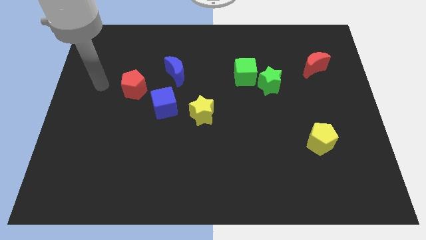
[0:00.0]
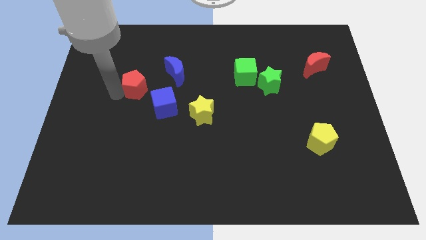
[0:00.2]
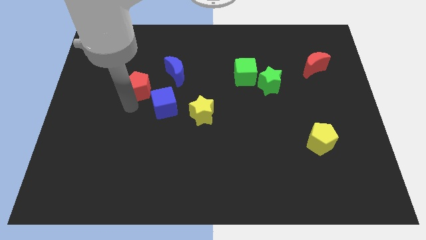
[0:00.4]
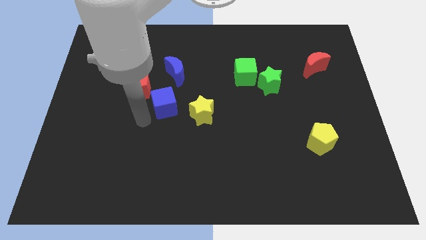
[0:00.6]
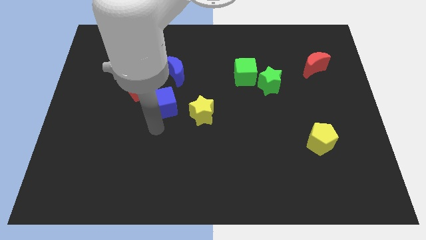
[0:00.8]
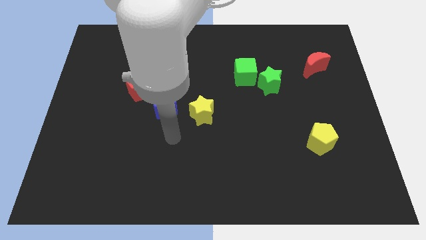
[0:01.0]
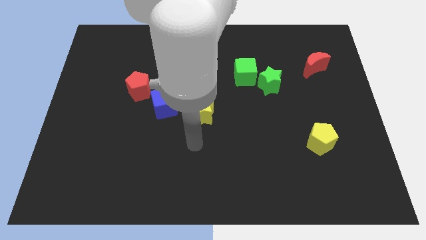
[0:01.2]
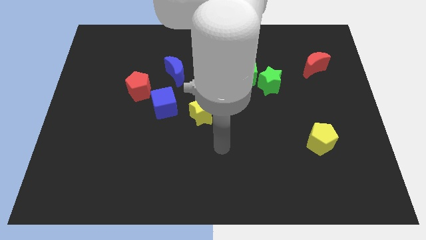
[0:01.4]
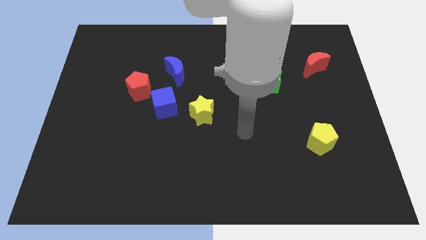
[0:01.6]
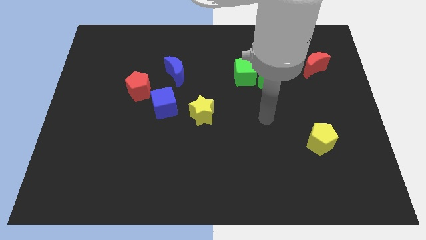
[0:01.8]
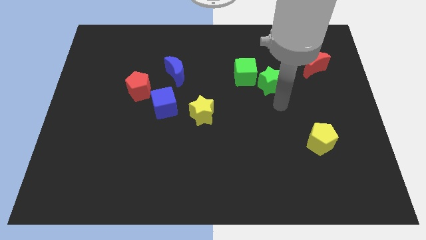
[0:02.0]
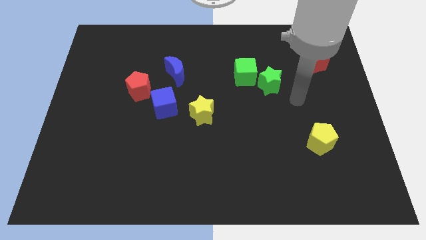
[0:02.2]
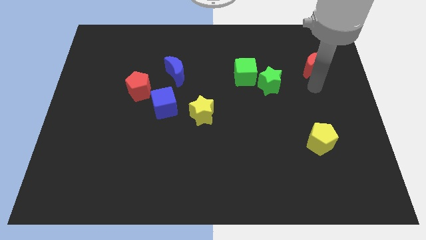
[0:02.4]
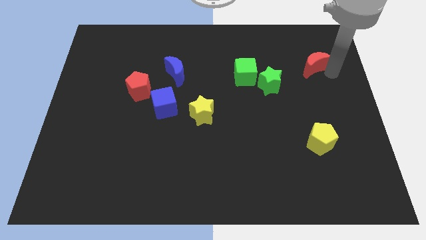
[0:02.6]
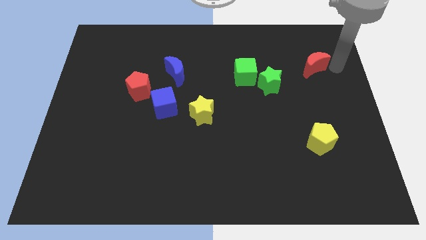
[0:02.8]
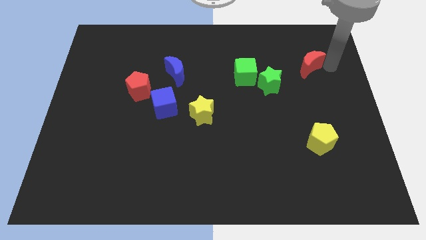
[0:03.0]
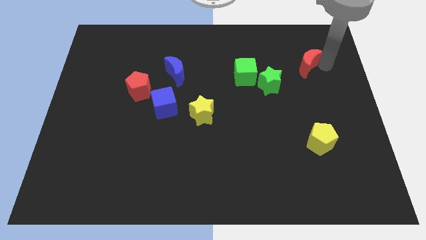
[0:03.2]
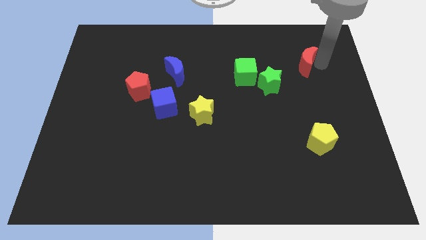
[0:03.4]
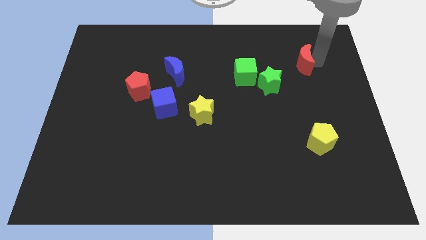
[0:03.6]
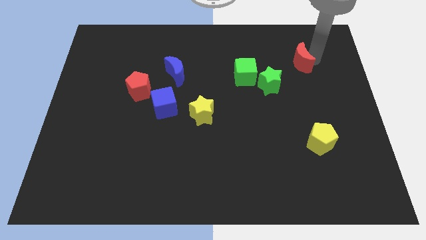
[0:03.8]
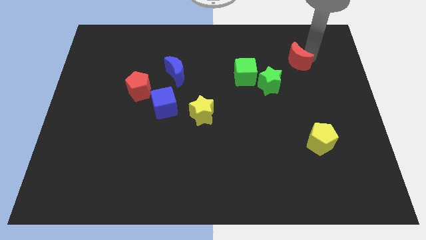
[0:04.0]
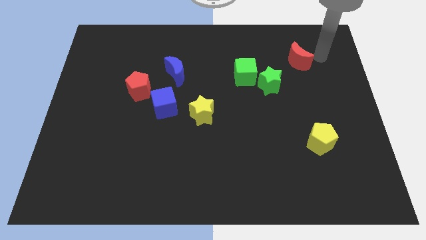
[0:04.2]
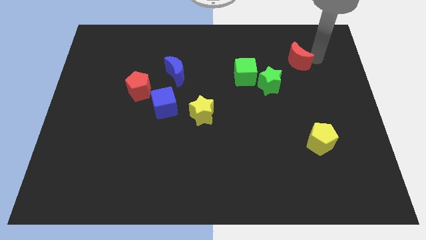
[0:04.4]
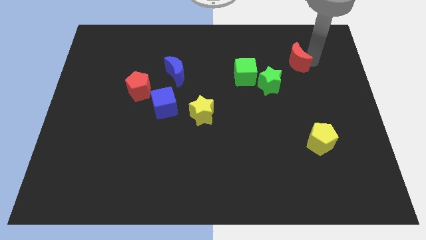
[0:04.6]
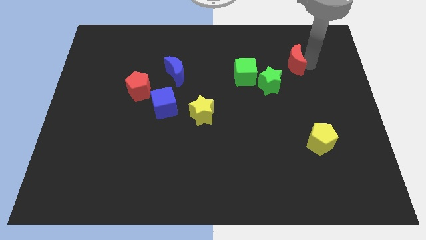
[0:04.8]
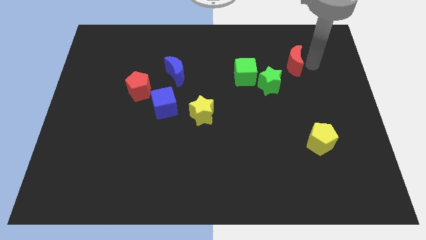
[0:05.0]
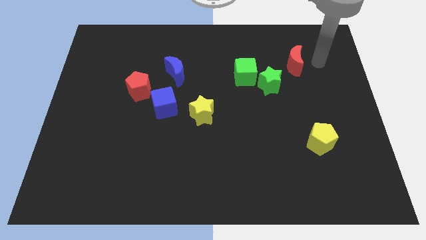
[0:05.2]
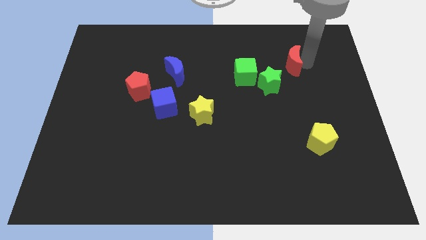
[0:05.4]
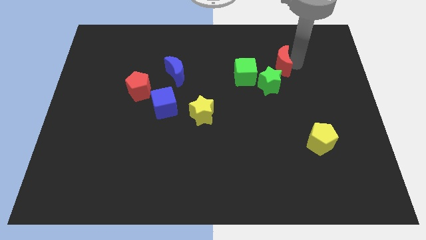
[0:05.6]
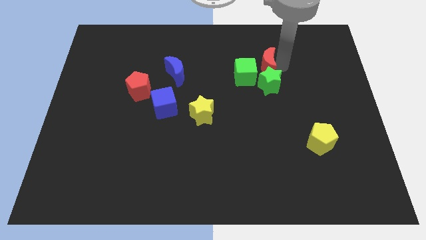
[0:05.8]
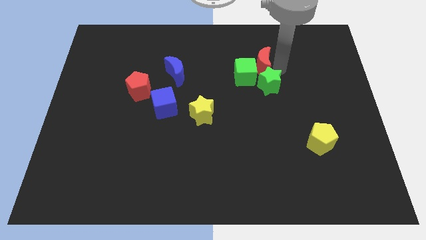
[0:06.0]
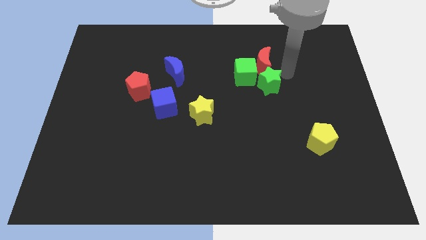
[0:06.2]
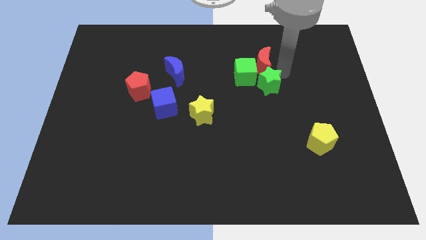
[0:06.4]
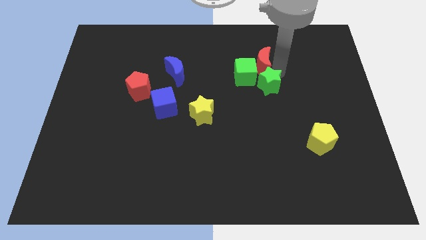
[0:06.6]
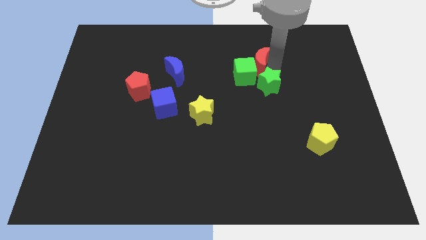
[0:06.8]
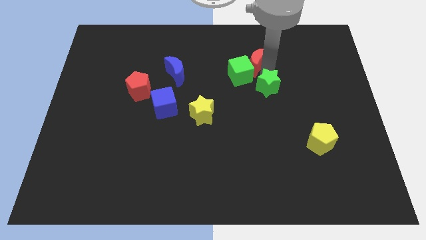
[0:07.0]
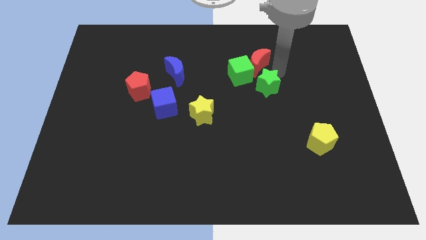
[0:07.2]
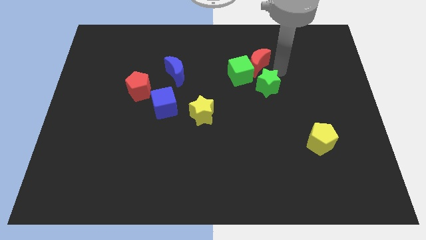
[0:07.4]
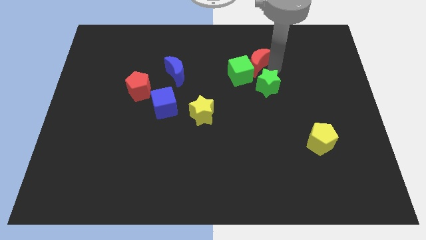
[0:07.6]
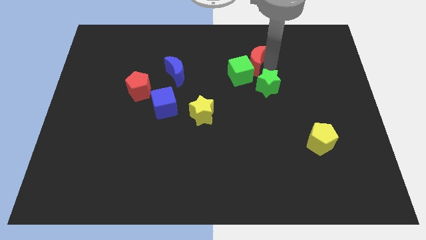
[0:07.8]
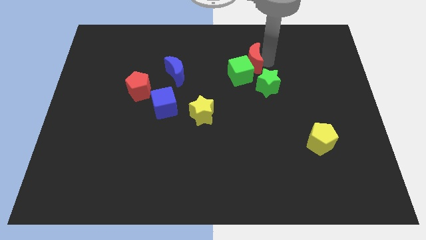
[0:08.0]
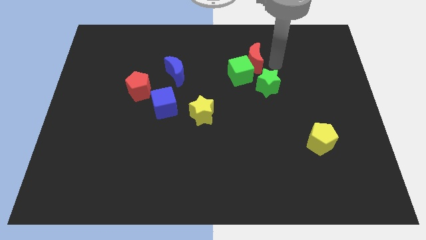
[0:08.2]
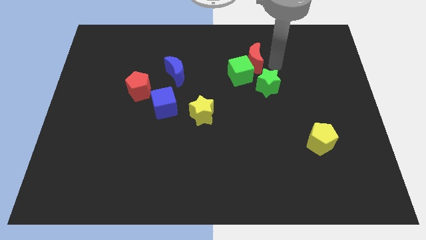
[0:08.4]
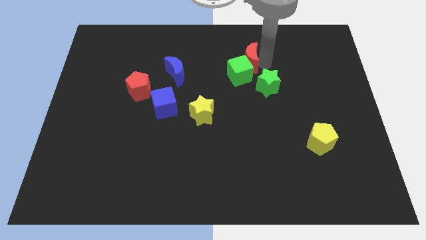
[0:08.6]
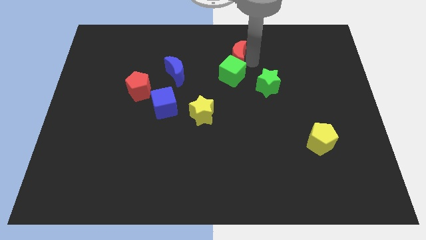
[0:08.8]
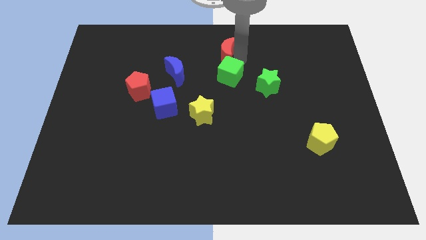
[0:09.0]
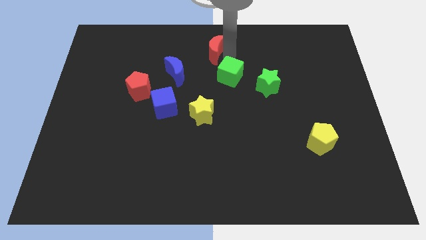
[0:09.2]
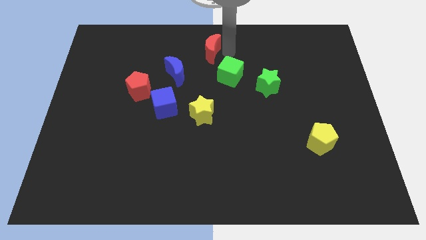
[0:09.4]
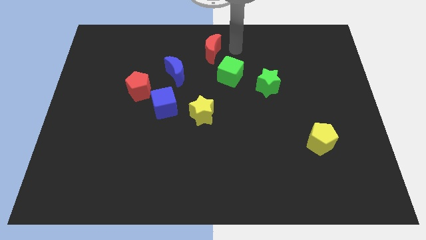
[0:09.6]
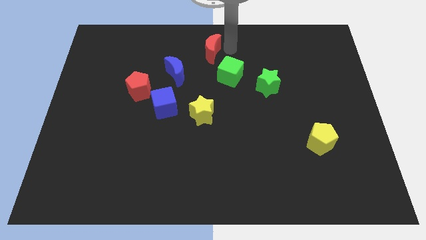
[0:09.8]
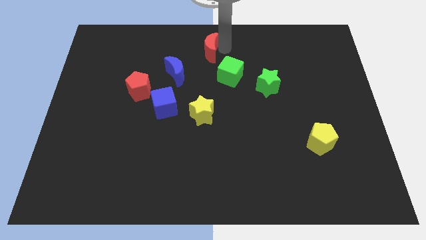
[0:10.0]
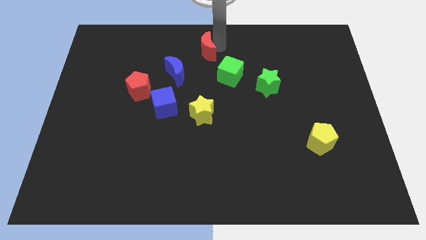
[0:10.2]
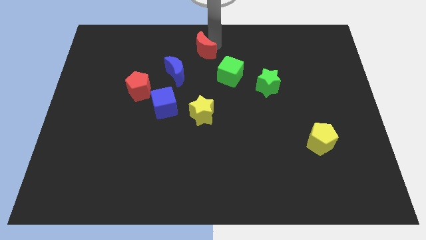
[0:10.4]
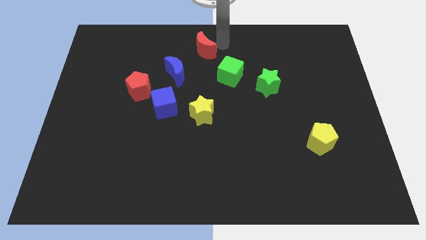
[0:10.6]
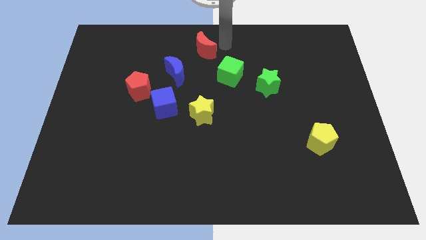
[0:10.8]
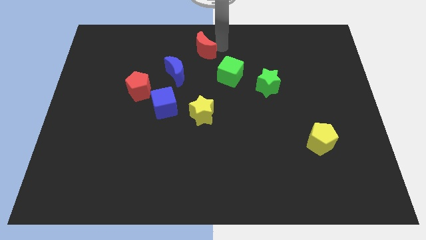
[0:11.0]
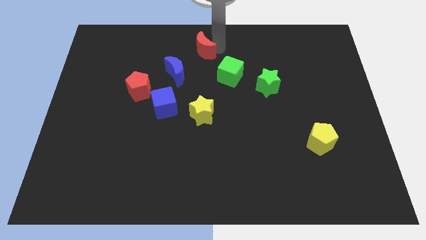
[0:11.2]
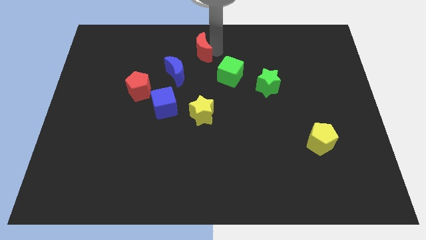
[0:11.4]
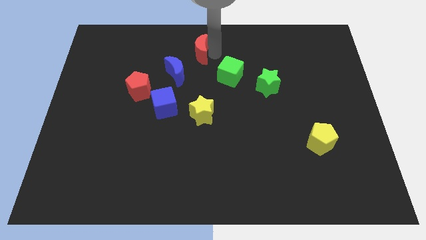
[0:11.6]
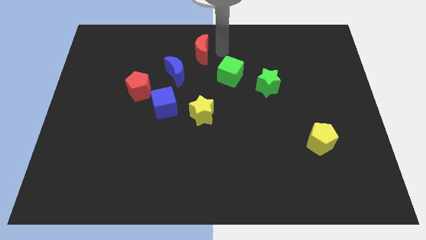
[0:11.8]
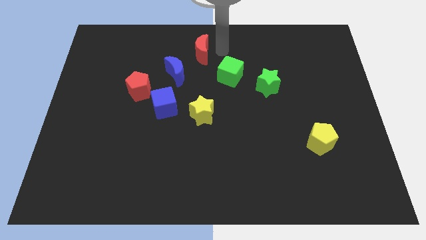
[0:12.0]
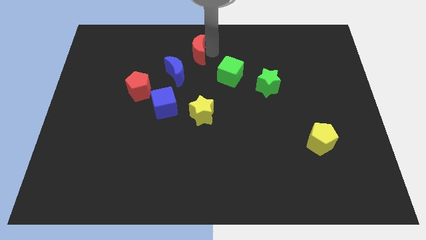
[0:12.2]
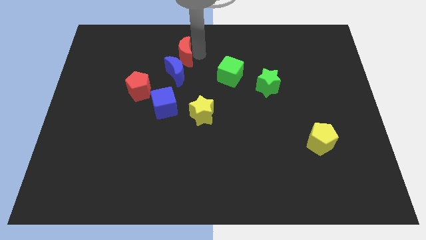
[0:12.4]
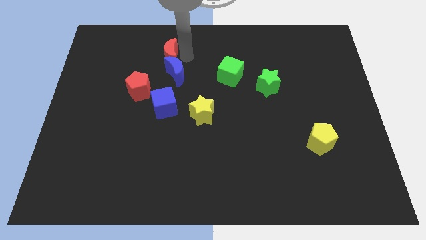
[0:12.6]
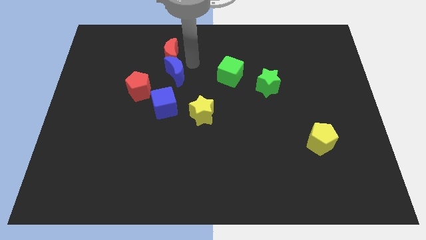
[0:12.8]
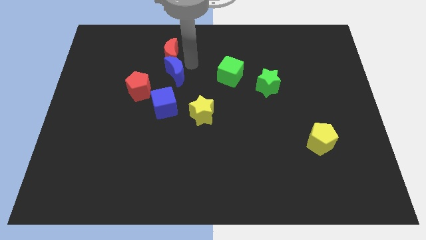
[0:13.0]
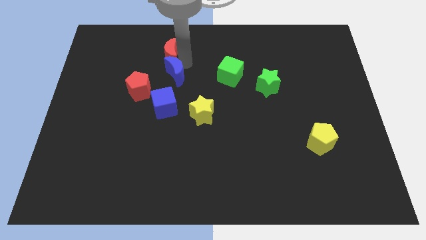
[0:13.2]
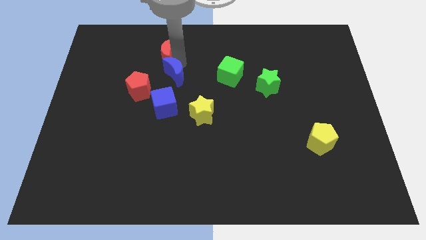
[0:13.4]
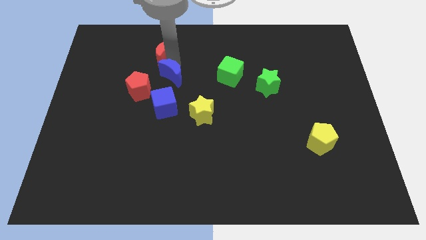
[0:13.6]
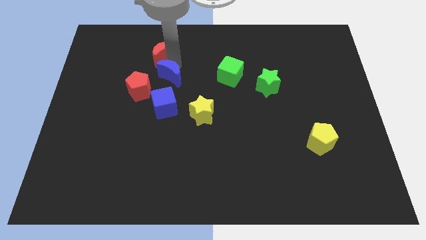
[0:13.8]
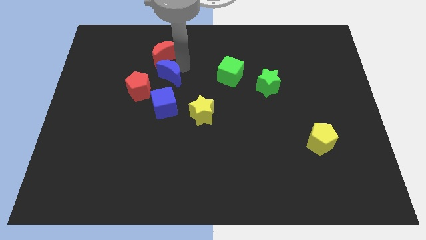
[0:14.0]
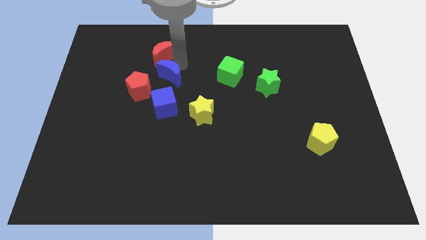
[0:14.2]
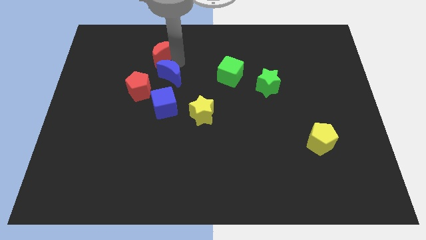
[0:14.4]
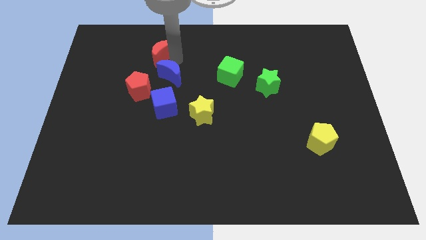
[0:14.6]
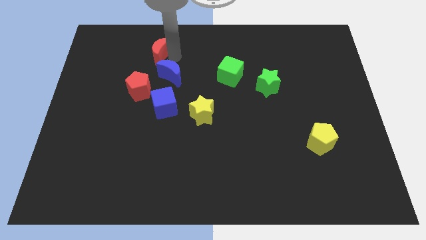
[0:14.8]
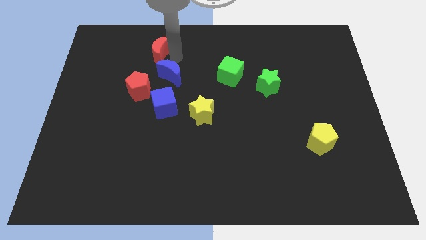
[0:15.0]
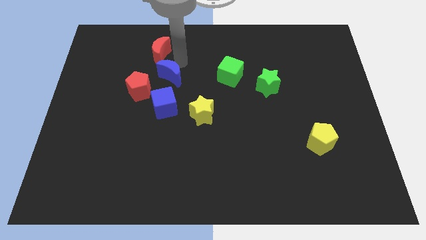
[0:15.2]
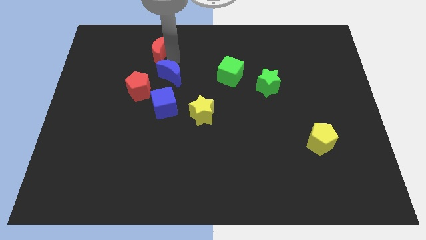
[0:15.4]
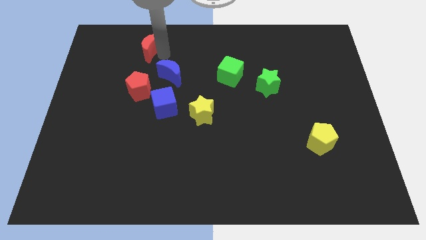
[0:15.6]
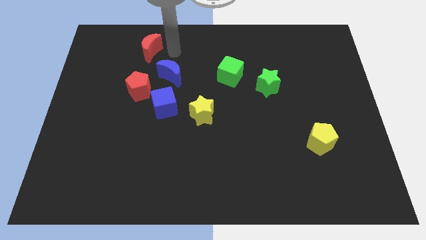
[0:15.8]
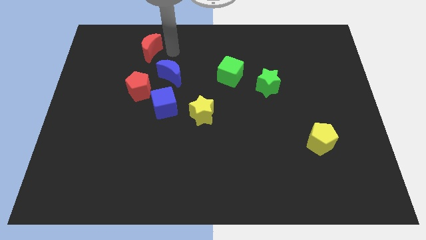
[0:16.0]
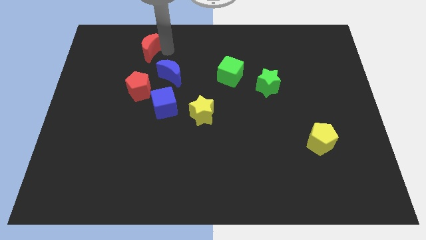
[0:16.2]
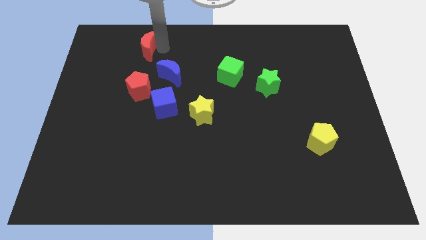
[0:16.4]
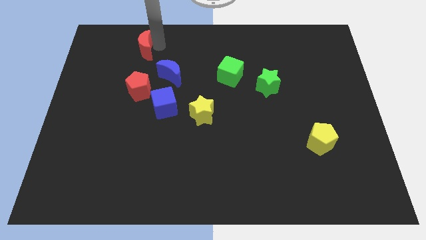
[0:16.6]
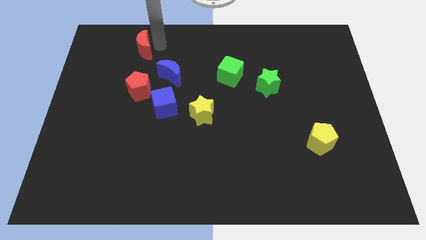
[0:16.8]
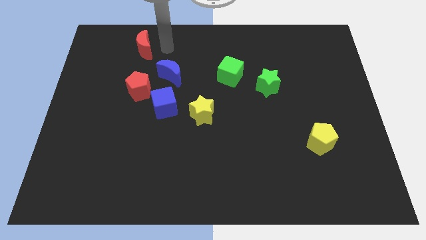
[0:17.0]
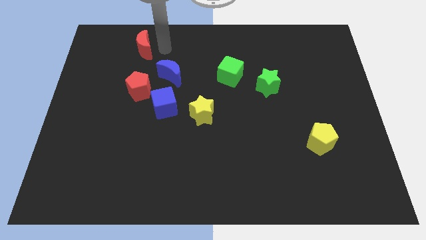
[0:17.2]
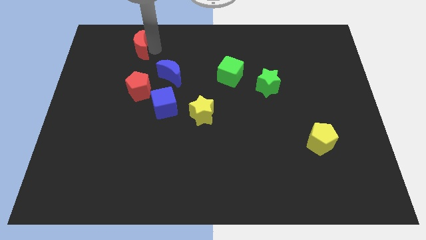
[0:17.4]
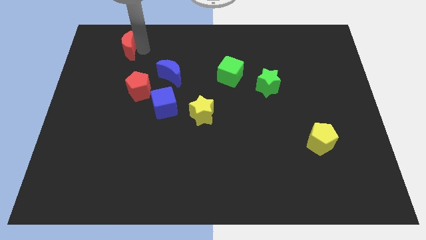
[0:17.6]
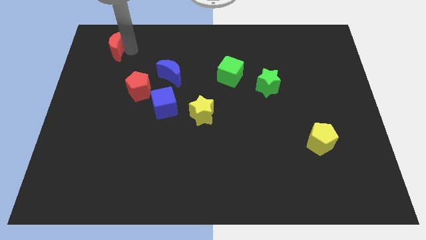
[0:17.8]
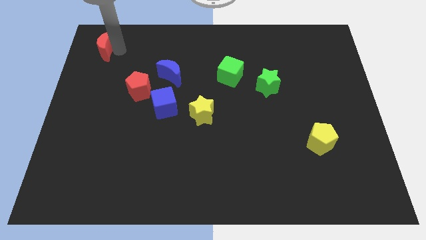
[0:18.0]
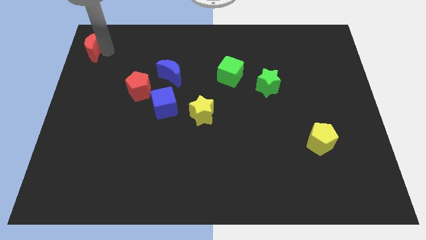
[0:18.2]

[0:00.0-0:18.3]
slide the red moon to the top left of the board
